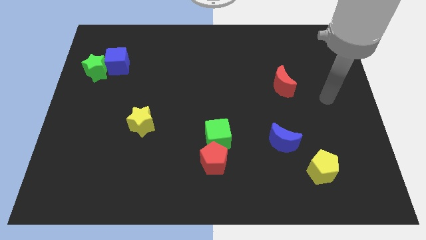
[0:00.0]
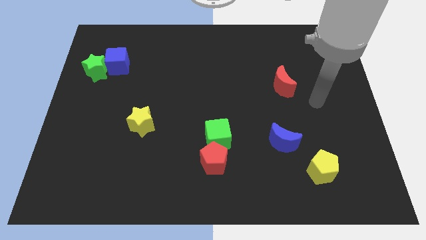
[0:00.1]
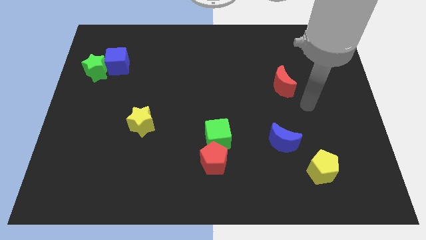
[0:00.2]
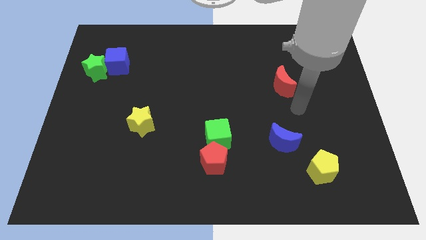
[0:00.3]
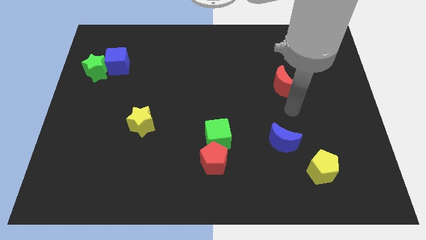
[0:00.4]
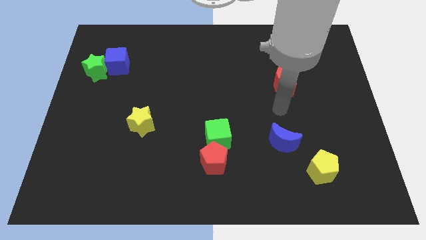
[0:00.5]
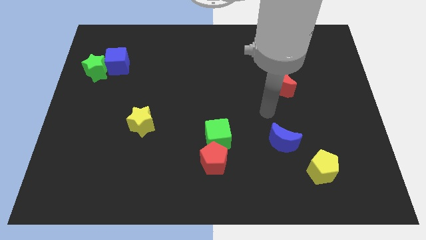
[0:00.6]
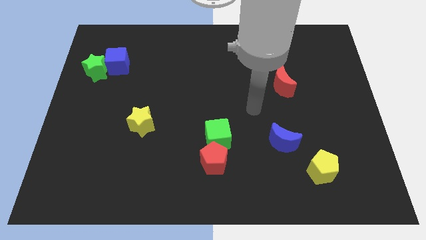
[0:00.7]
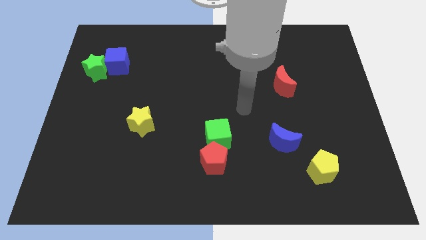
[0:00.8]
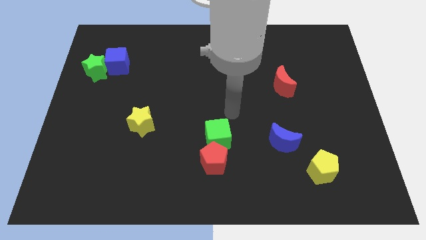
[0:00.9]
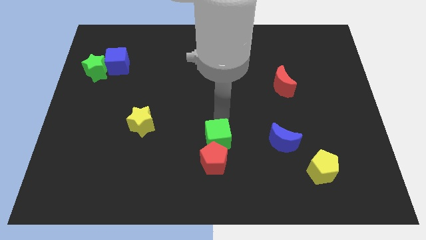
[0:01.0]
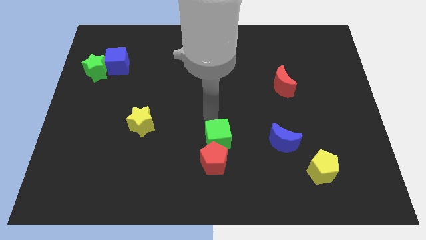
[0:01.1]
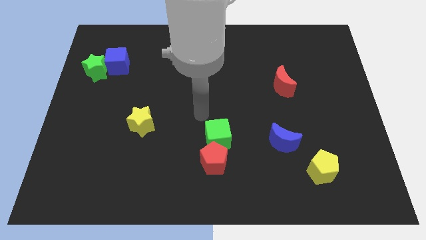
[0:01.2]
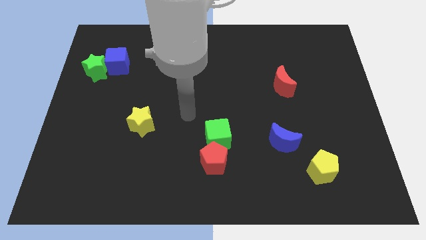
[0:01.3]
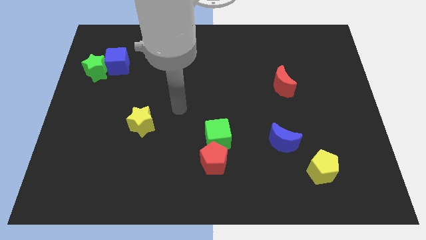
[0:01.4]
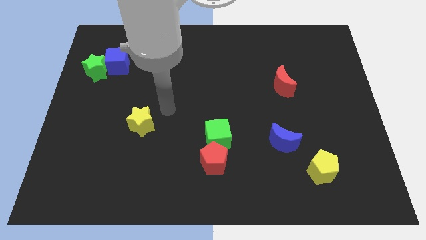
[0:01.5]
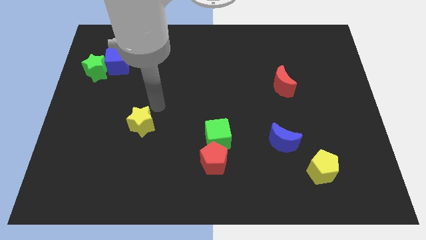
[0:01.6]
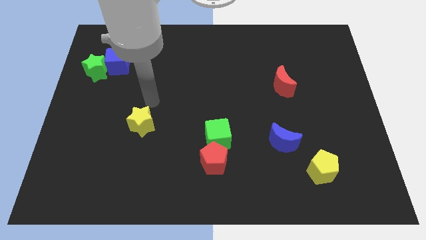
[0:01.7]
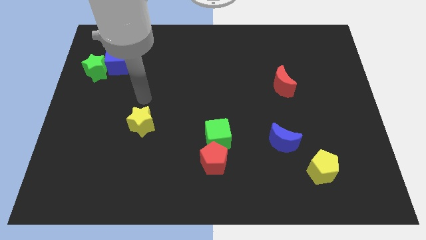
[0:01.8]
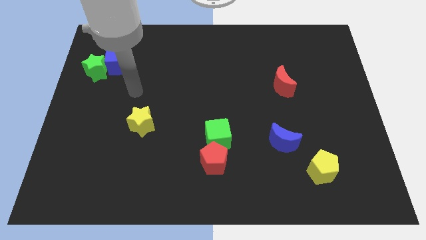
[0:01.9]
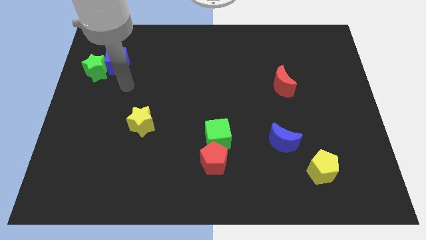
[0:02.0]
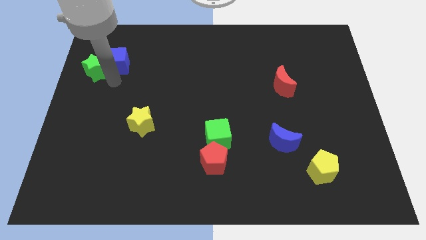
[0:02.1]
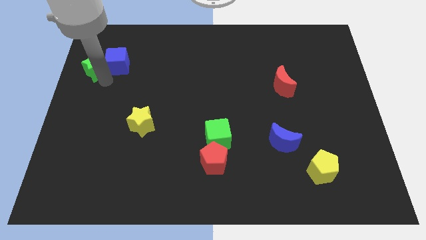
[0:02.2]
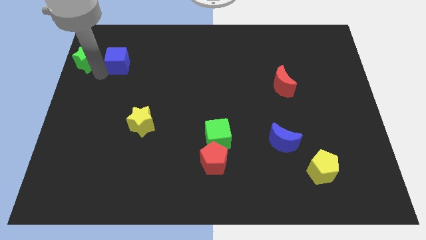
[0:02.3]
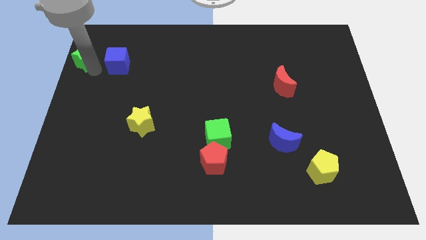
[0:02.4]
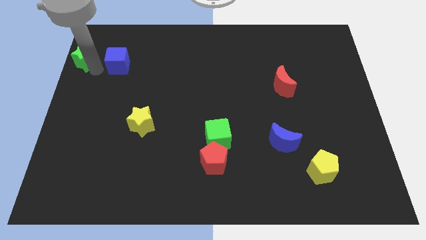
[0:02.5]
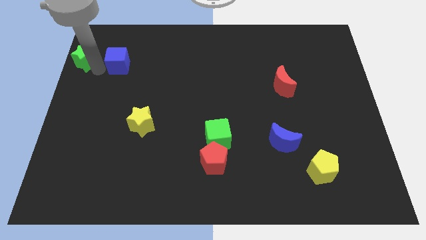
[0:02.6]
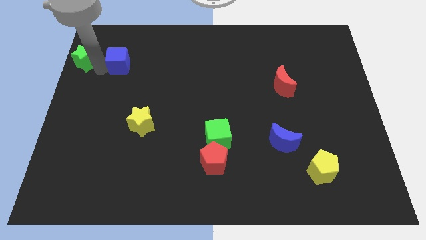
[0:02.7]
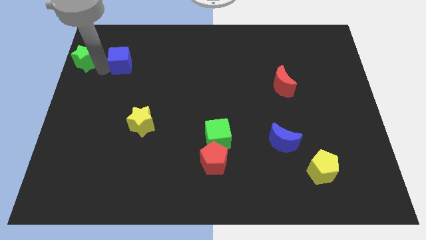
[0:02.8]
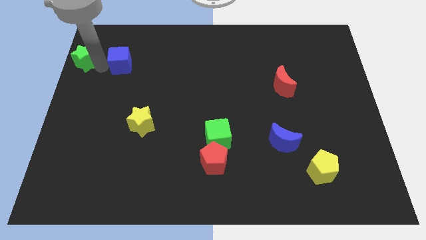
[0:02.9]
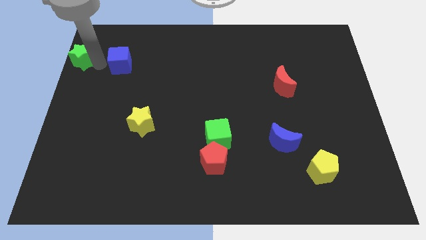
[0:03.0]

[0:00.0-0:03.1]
separate the blue cube from the green star

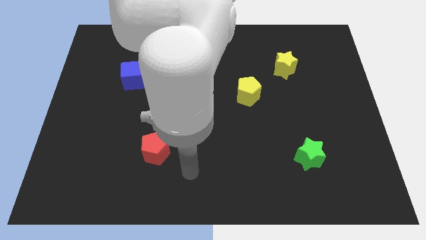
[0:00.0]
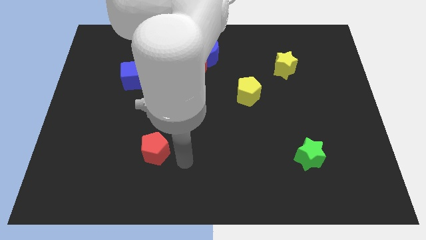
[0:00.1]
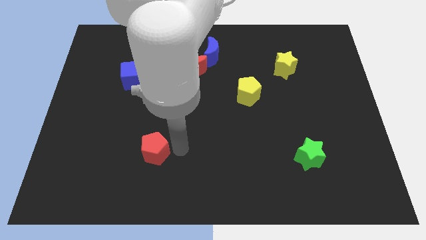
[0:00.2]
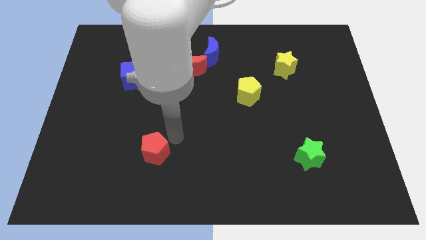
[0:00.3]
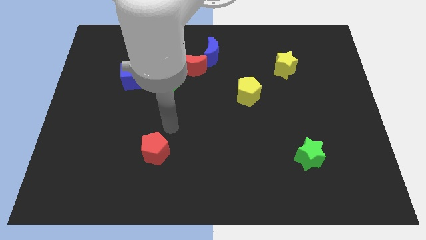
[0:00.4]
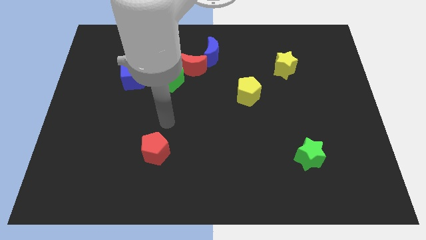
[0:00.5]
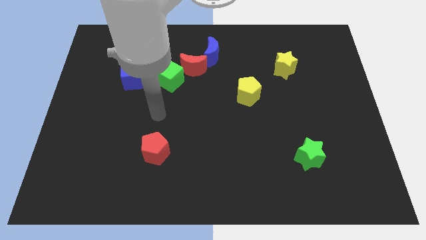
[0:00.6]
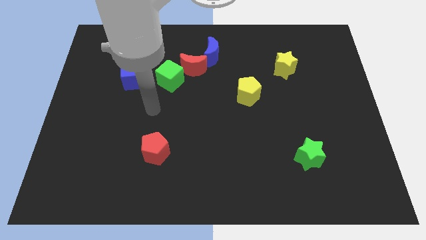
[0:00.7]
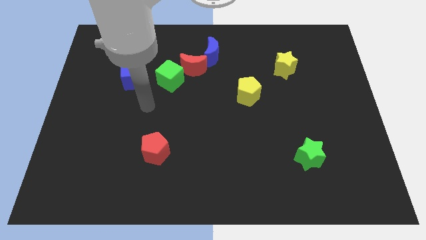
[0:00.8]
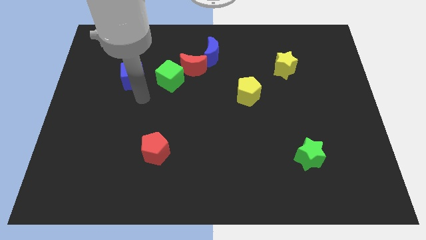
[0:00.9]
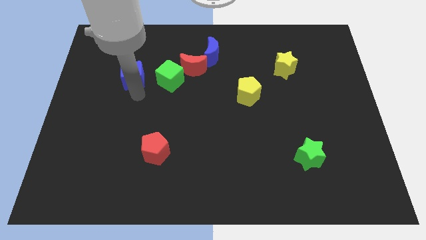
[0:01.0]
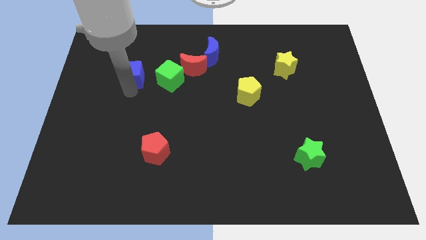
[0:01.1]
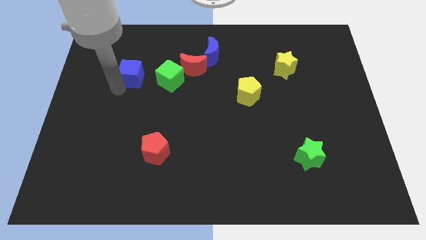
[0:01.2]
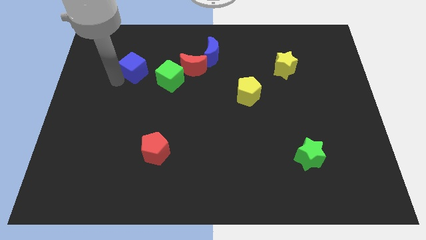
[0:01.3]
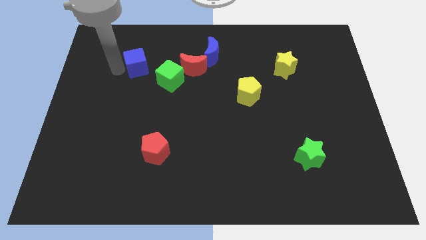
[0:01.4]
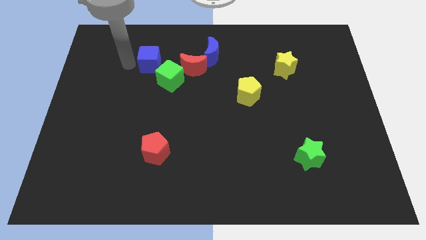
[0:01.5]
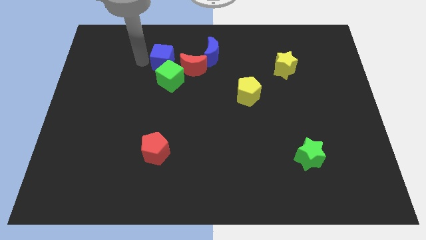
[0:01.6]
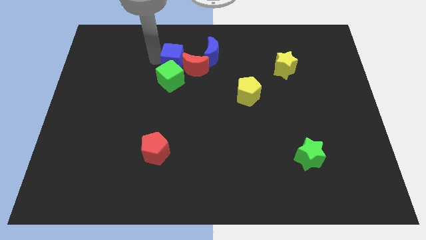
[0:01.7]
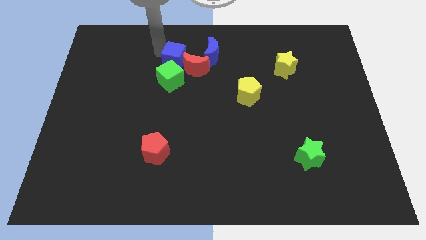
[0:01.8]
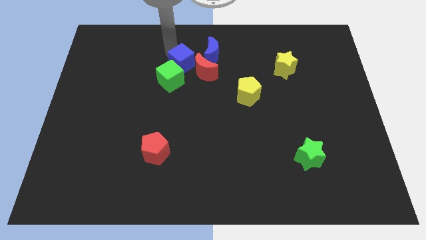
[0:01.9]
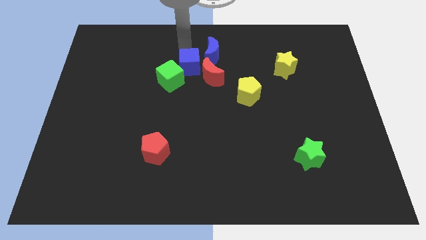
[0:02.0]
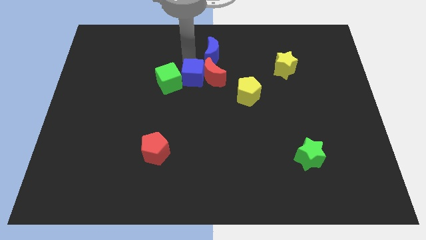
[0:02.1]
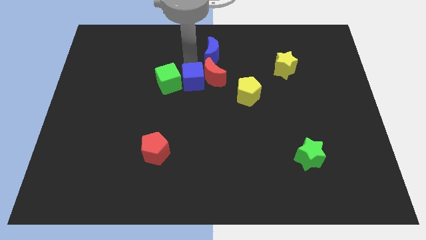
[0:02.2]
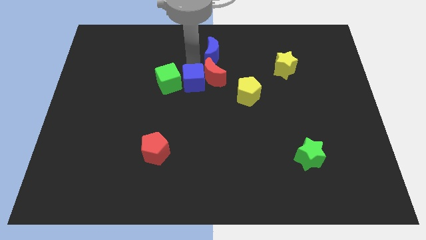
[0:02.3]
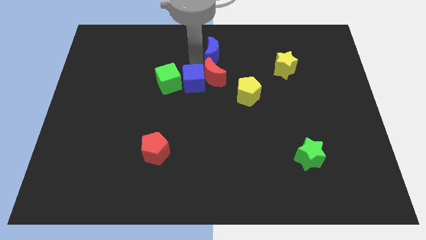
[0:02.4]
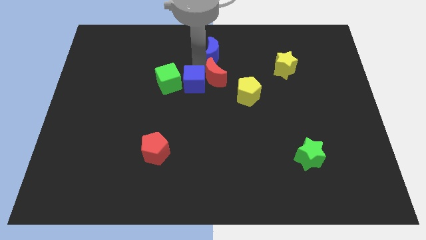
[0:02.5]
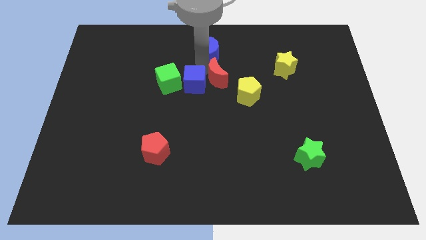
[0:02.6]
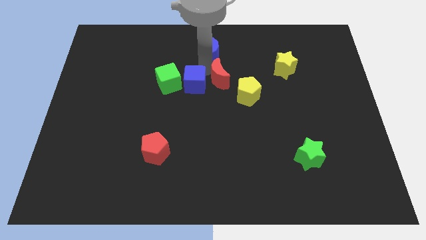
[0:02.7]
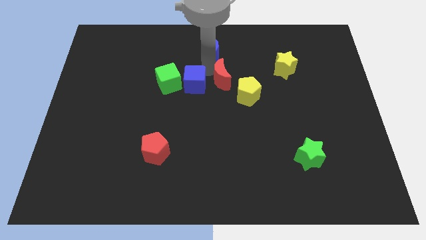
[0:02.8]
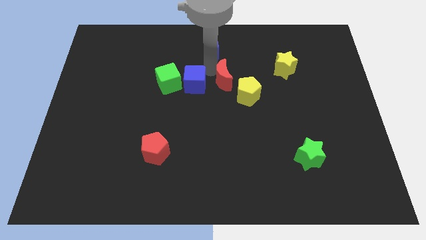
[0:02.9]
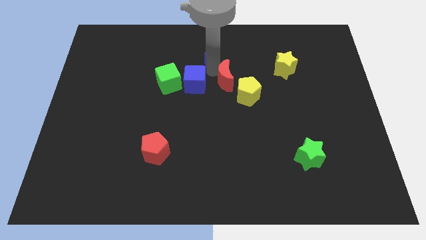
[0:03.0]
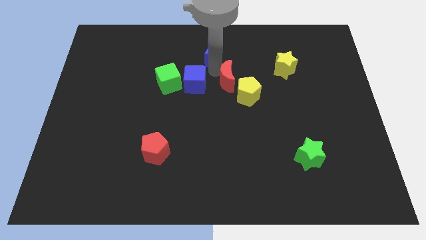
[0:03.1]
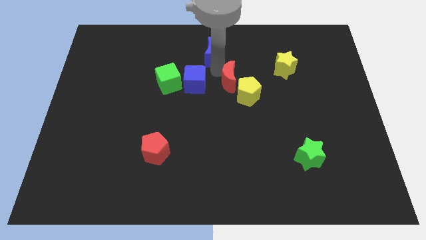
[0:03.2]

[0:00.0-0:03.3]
separate the red moon from the green cube and blue moon

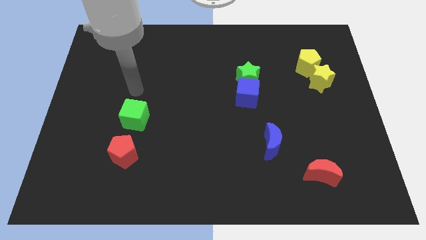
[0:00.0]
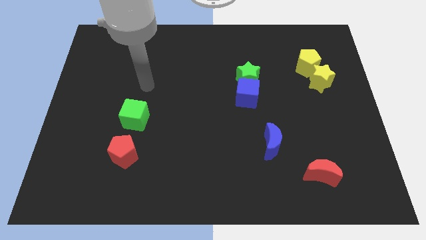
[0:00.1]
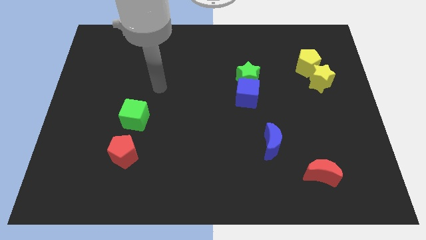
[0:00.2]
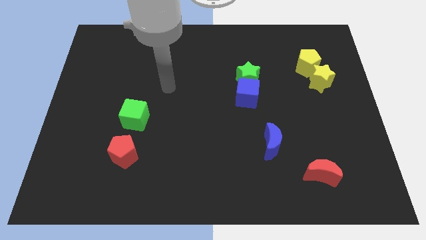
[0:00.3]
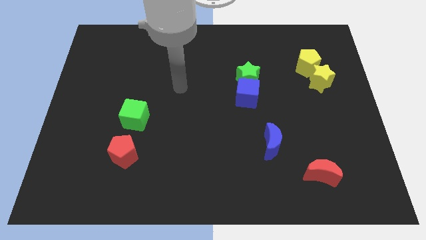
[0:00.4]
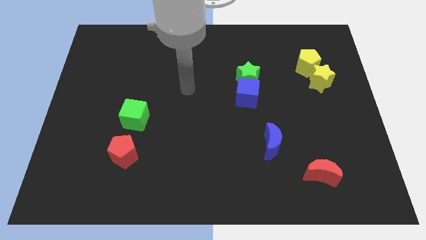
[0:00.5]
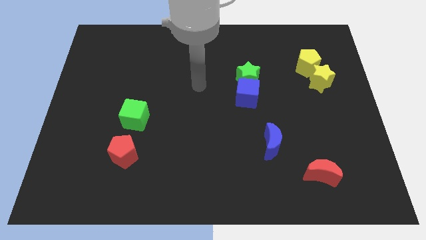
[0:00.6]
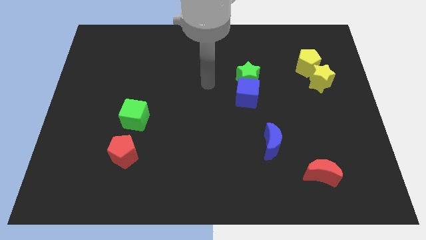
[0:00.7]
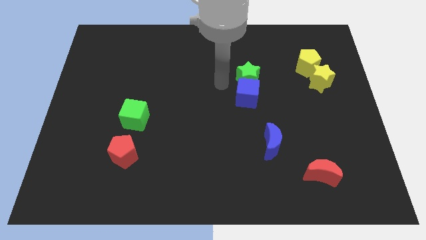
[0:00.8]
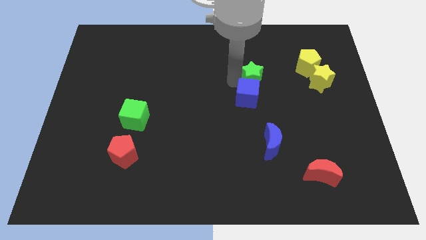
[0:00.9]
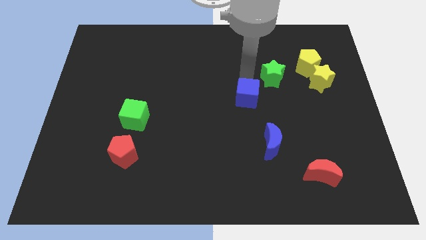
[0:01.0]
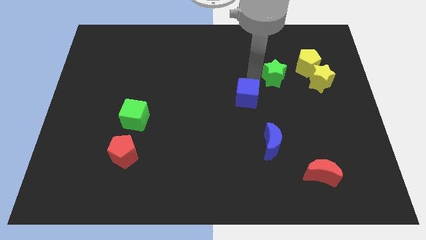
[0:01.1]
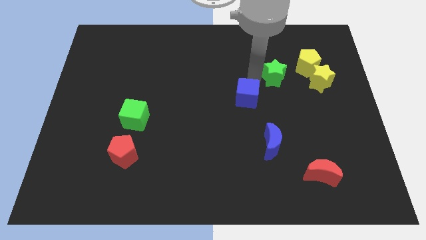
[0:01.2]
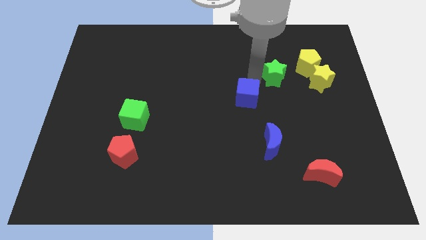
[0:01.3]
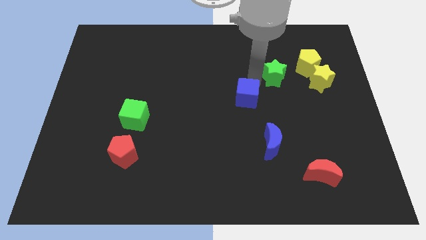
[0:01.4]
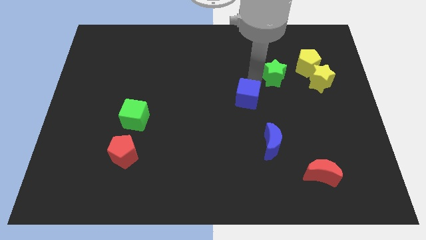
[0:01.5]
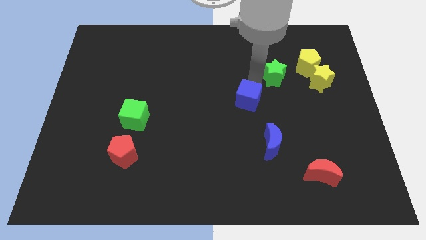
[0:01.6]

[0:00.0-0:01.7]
pull the blue cube apart from the green star

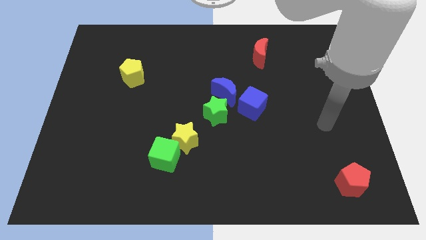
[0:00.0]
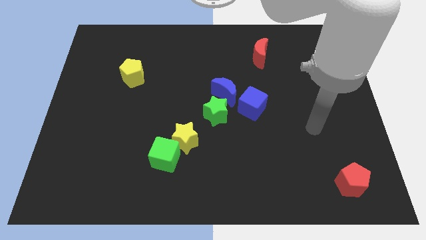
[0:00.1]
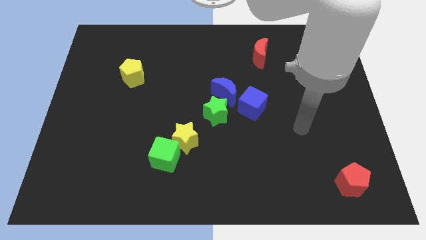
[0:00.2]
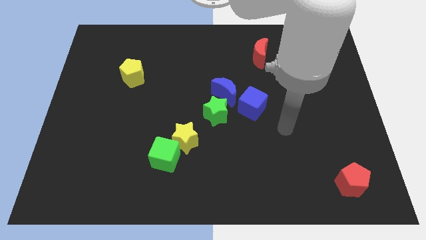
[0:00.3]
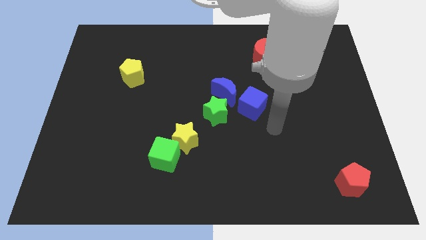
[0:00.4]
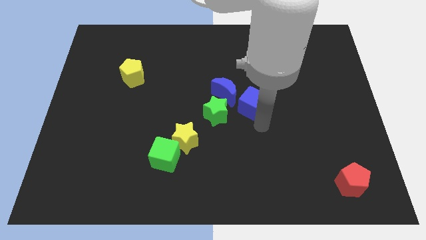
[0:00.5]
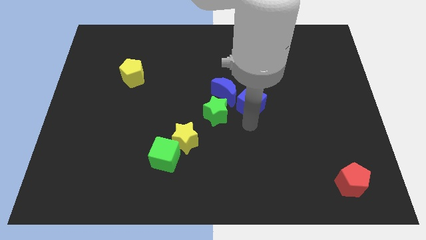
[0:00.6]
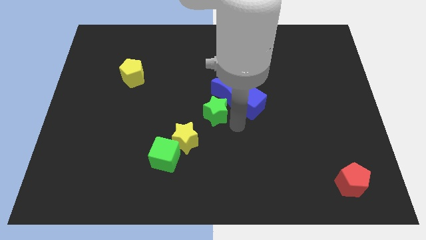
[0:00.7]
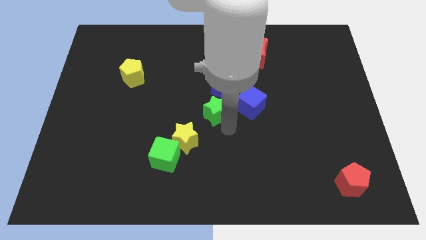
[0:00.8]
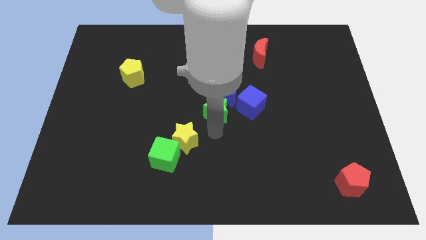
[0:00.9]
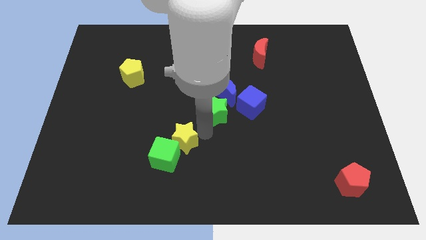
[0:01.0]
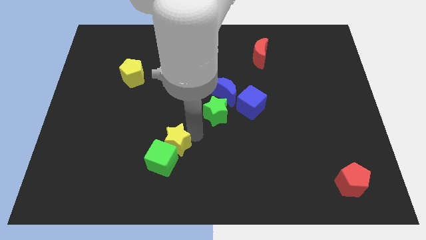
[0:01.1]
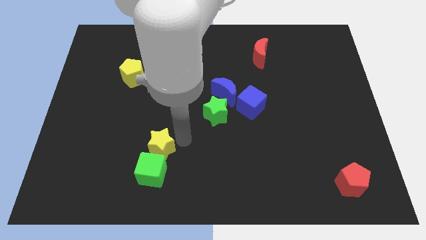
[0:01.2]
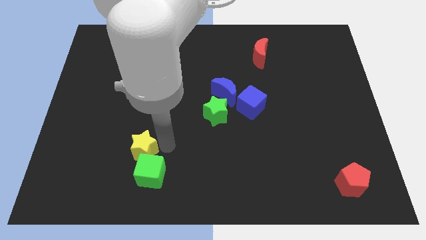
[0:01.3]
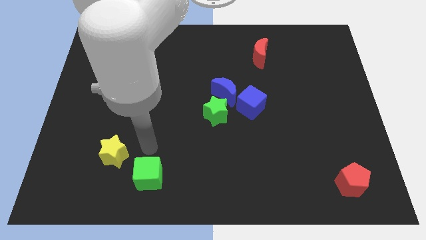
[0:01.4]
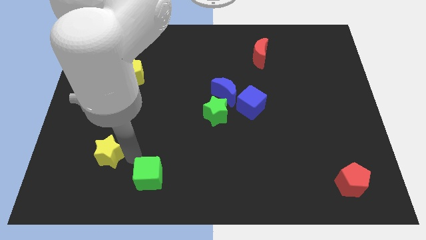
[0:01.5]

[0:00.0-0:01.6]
move the green cube away from the yellow star
